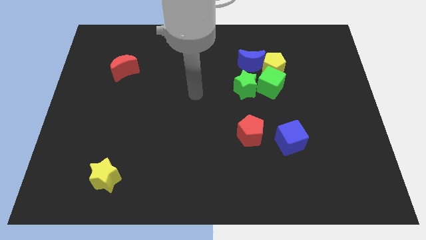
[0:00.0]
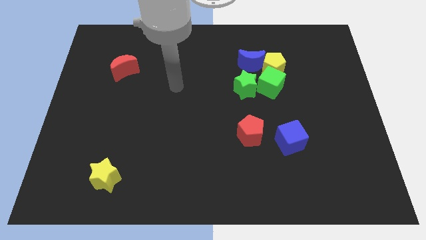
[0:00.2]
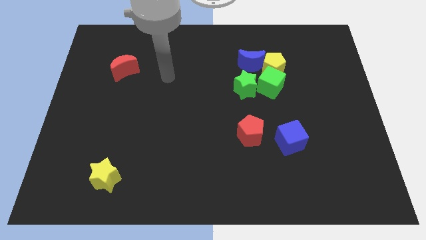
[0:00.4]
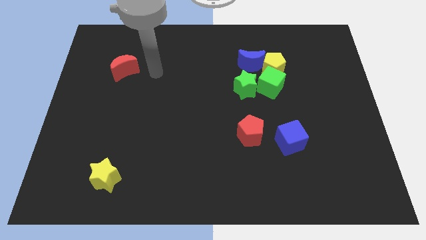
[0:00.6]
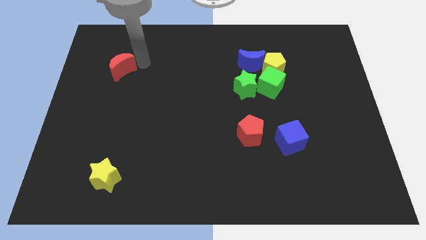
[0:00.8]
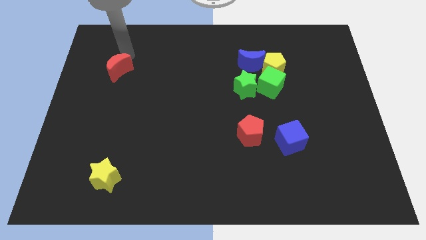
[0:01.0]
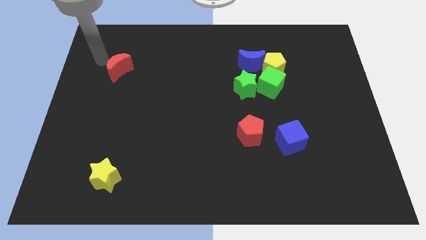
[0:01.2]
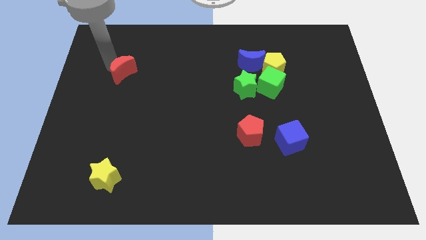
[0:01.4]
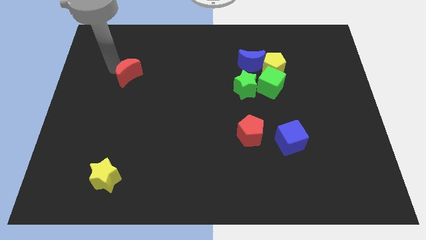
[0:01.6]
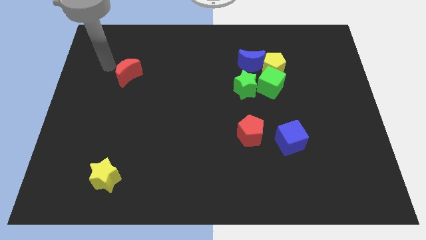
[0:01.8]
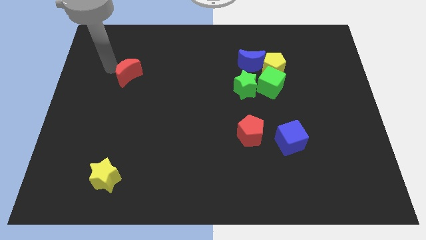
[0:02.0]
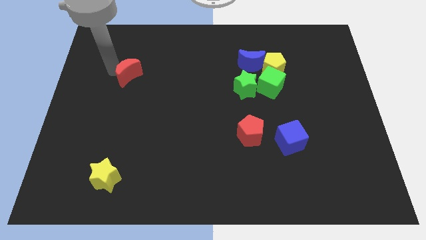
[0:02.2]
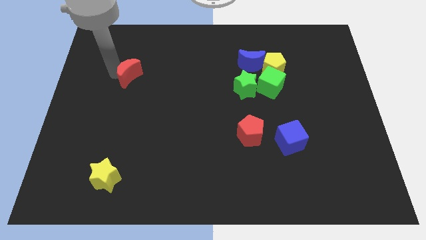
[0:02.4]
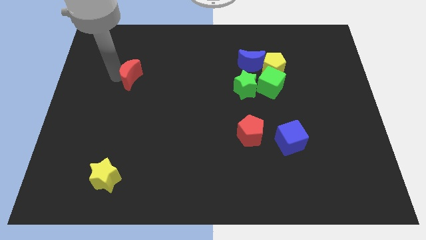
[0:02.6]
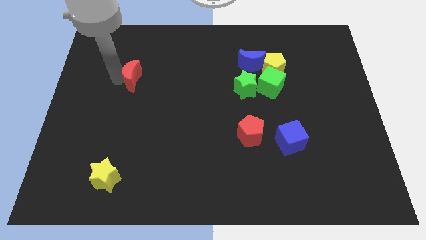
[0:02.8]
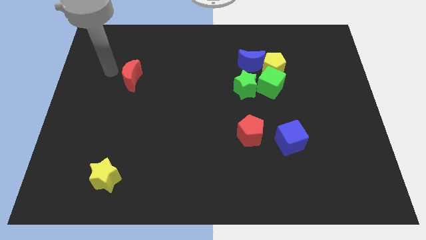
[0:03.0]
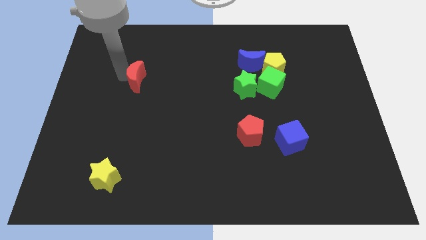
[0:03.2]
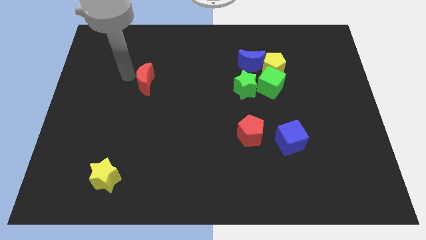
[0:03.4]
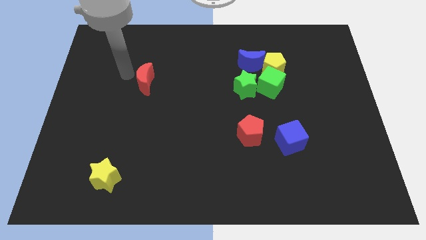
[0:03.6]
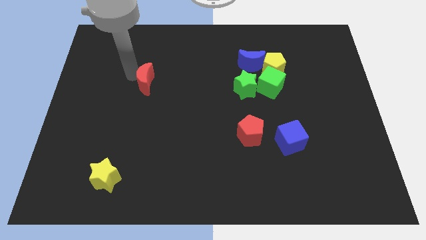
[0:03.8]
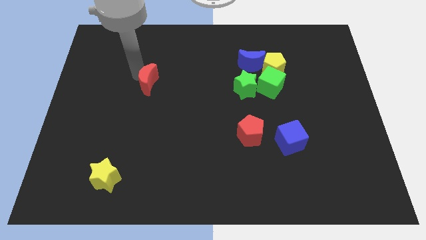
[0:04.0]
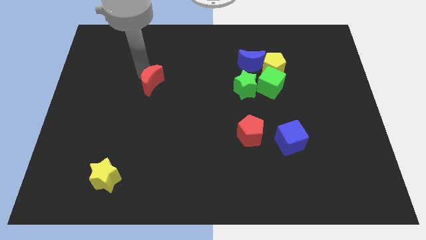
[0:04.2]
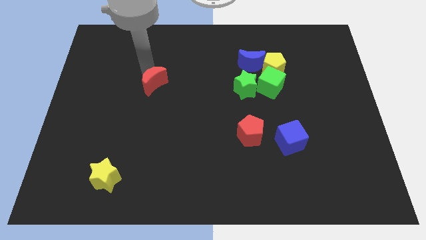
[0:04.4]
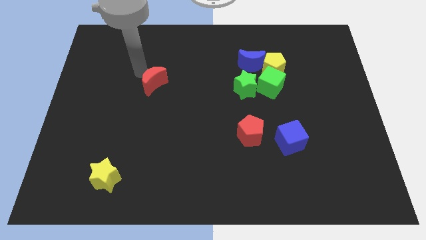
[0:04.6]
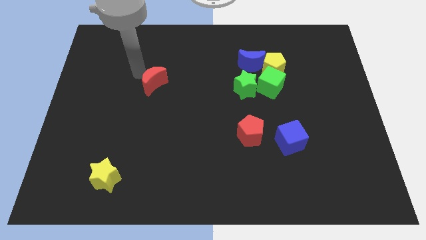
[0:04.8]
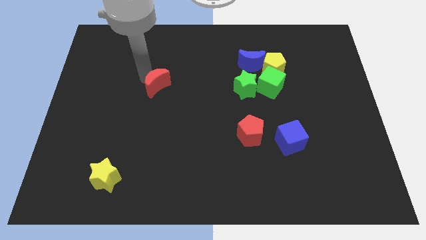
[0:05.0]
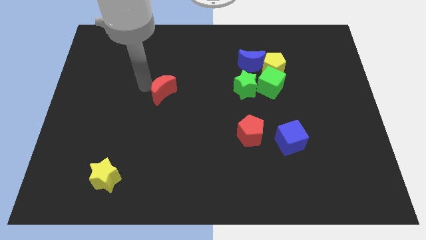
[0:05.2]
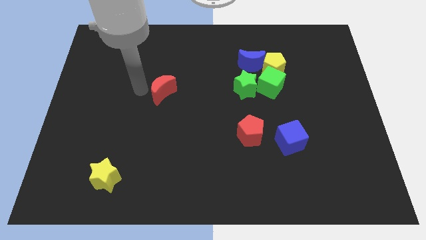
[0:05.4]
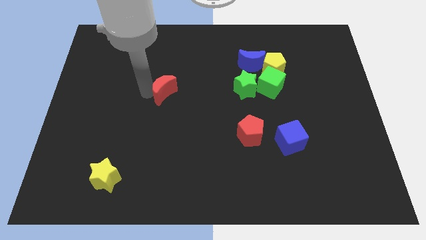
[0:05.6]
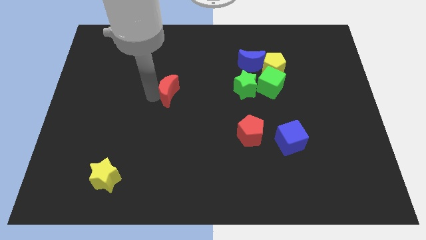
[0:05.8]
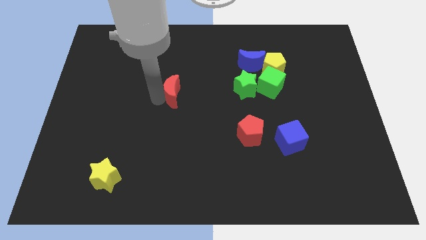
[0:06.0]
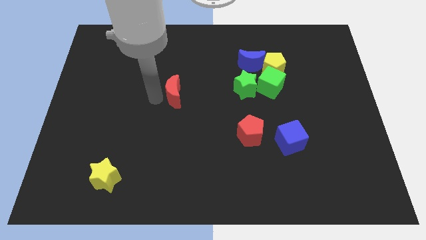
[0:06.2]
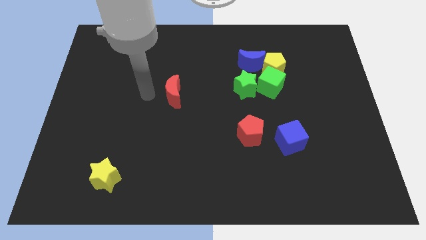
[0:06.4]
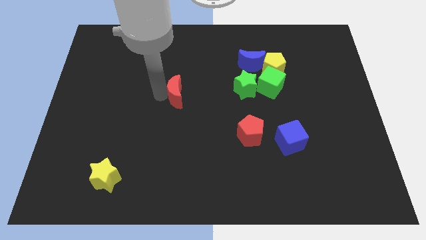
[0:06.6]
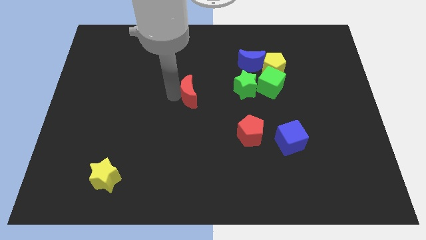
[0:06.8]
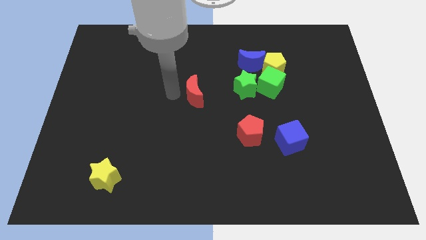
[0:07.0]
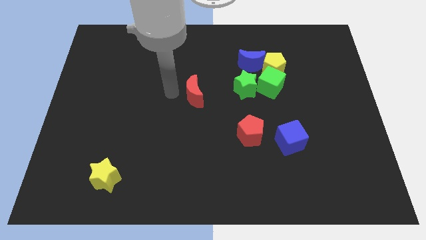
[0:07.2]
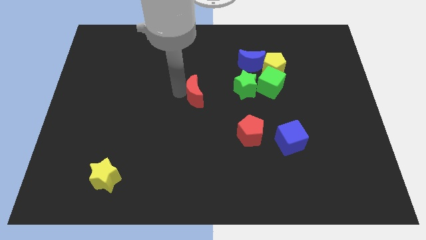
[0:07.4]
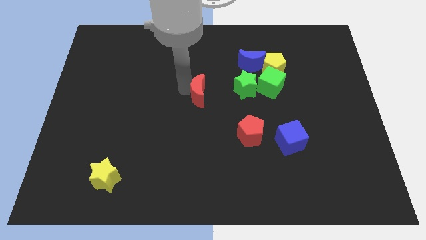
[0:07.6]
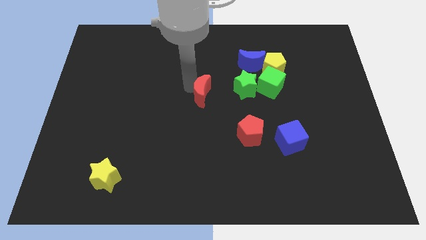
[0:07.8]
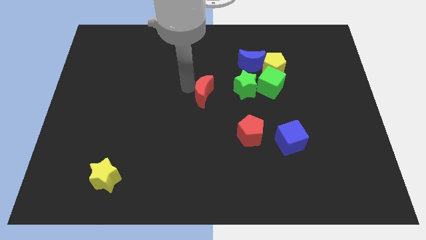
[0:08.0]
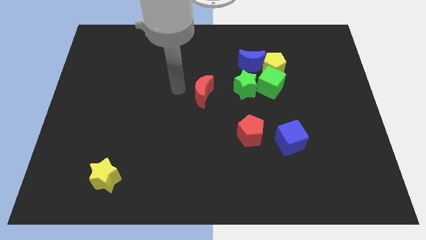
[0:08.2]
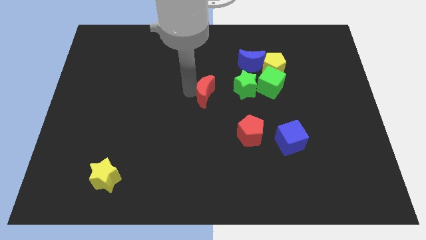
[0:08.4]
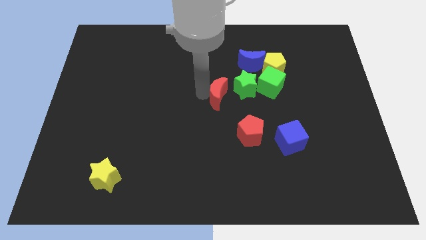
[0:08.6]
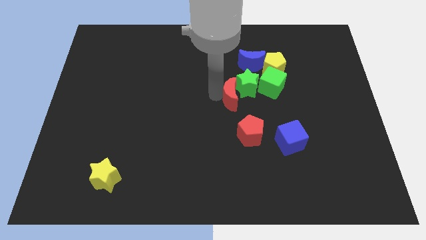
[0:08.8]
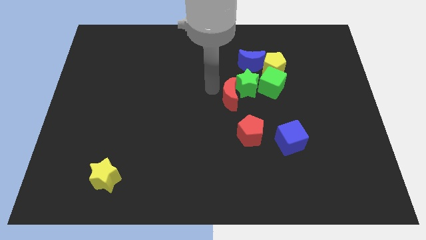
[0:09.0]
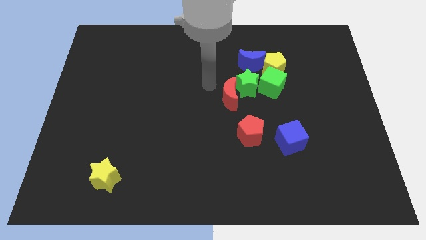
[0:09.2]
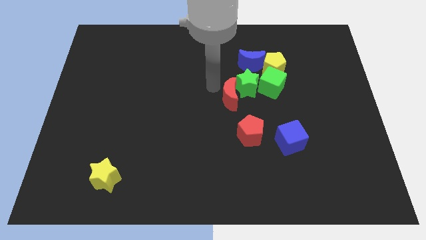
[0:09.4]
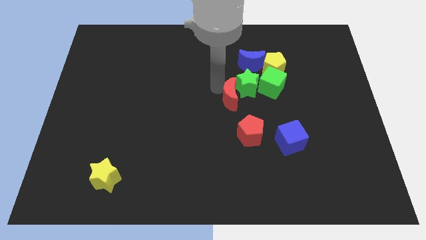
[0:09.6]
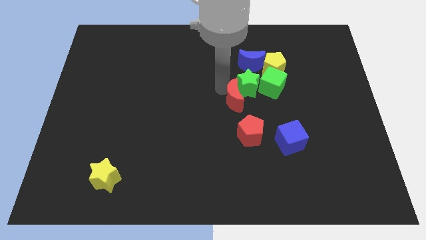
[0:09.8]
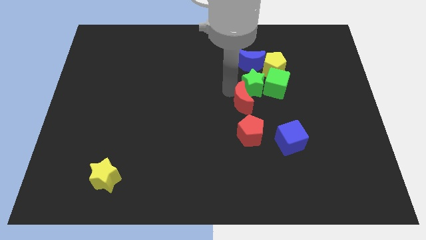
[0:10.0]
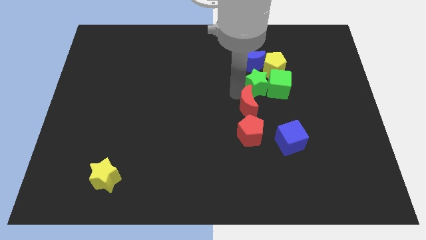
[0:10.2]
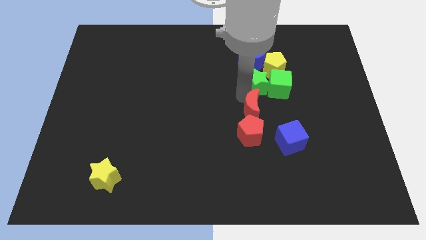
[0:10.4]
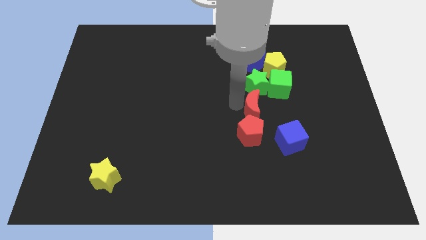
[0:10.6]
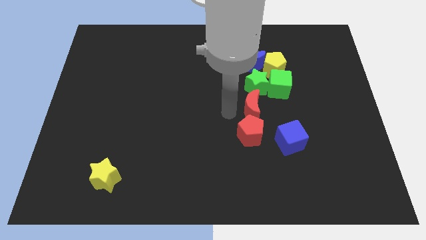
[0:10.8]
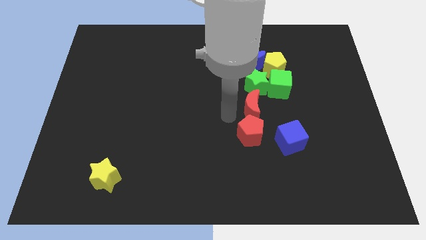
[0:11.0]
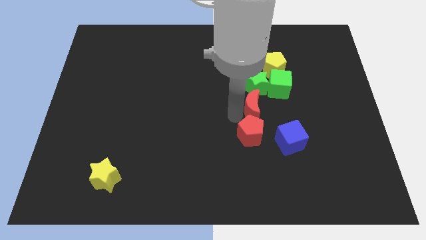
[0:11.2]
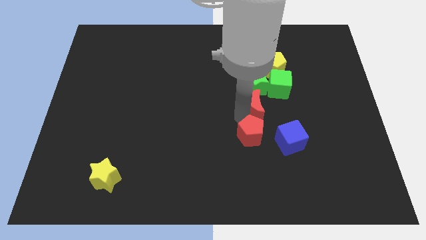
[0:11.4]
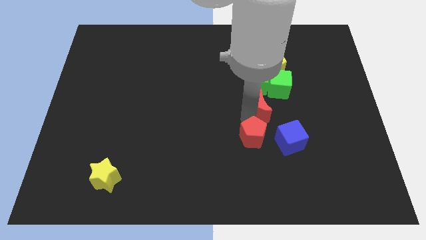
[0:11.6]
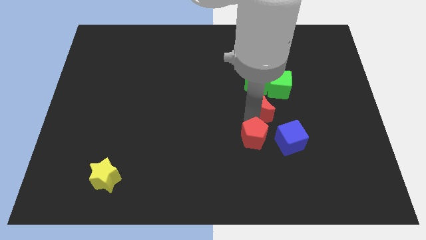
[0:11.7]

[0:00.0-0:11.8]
slide the red moon to the bottom right of the green star

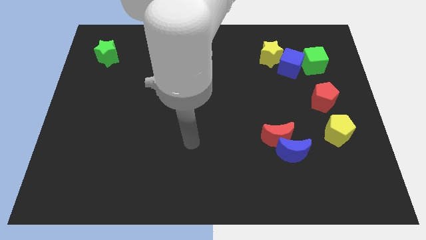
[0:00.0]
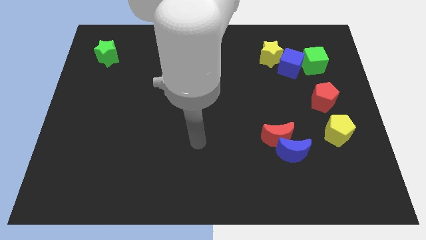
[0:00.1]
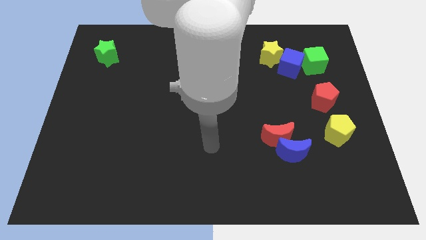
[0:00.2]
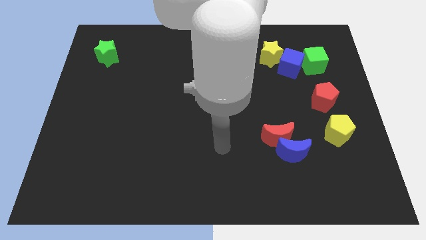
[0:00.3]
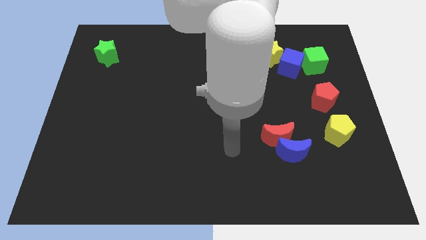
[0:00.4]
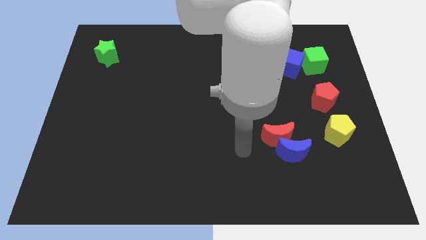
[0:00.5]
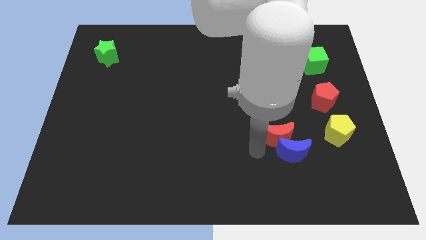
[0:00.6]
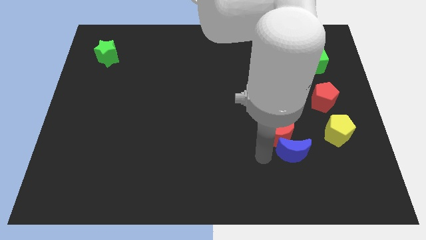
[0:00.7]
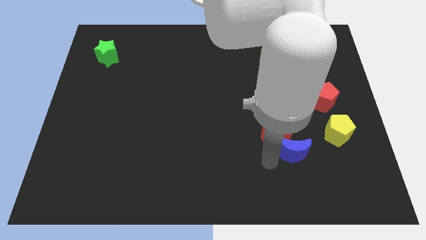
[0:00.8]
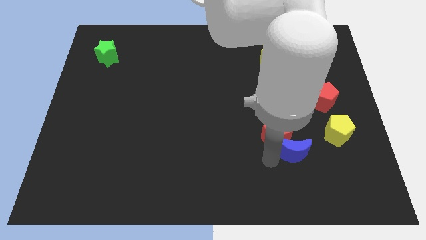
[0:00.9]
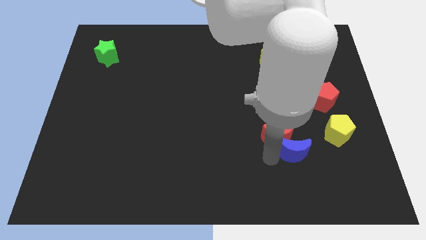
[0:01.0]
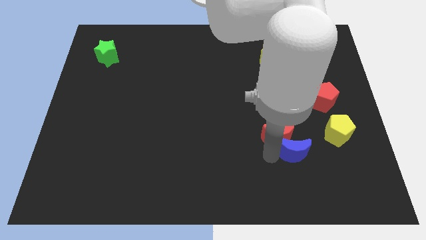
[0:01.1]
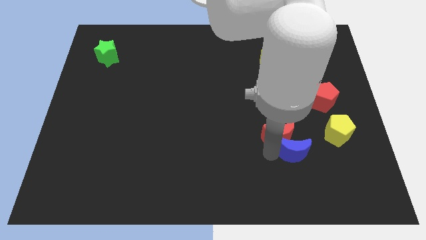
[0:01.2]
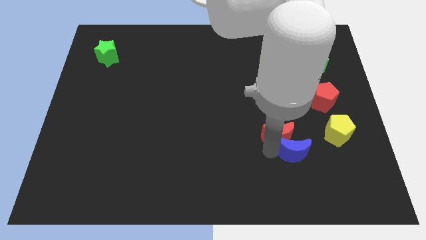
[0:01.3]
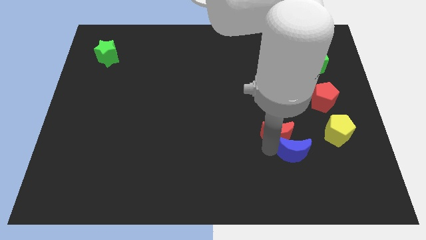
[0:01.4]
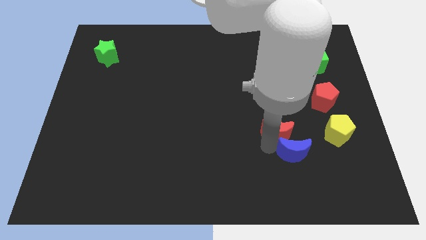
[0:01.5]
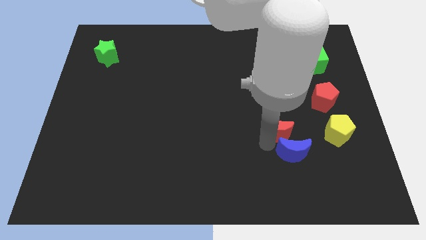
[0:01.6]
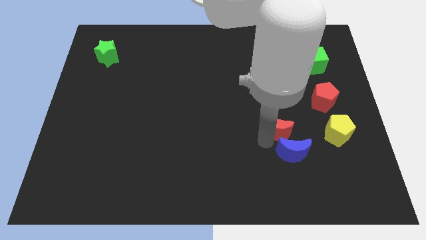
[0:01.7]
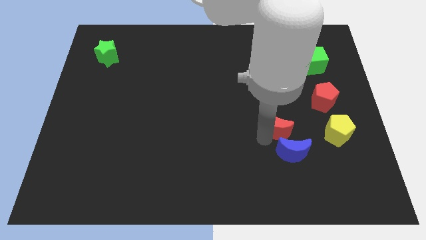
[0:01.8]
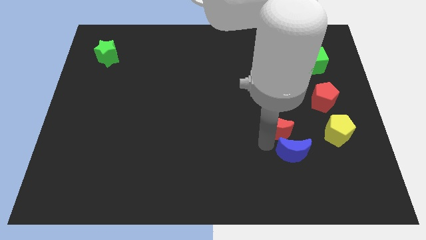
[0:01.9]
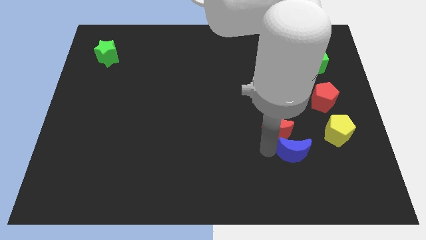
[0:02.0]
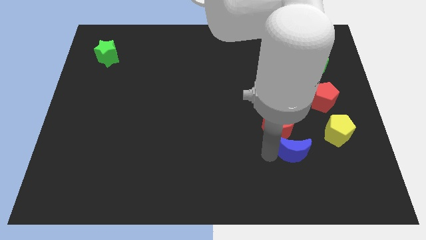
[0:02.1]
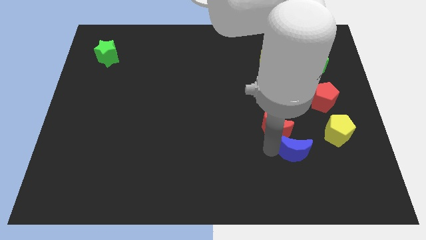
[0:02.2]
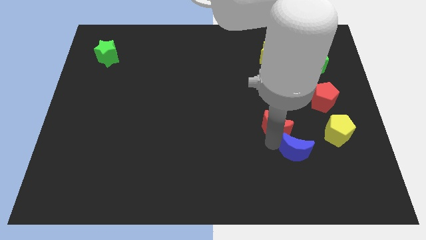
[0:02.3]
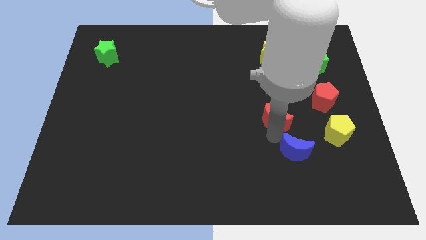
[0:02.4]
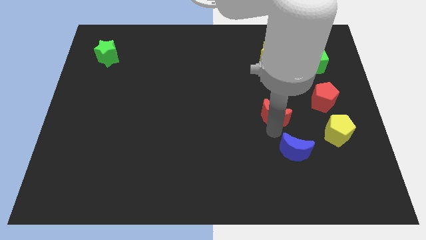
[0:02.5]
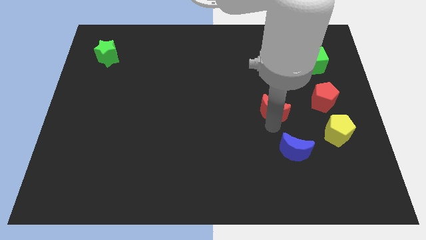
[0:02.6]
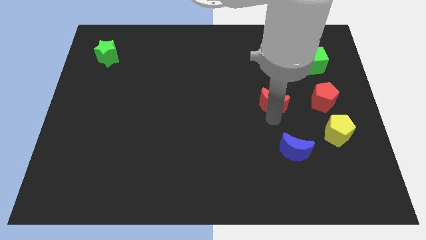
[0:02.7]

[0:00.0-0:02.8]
move the red moon below the yellow star
